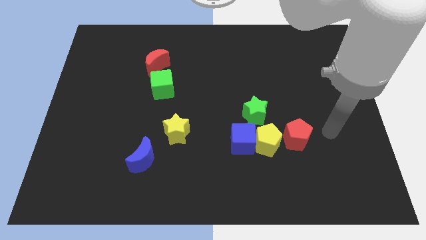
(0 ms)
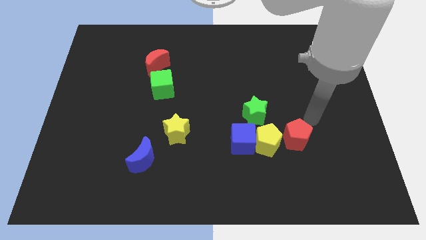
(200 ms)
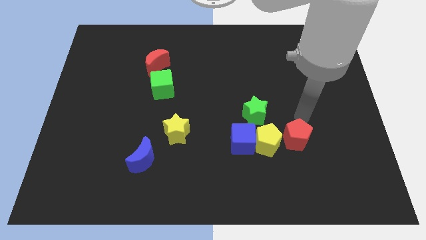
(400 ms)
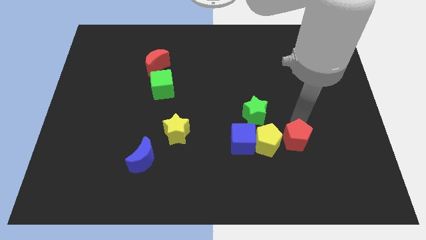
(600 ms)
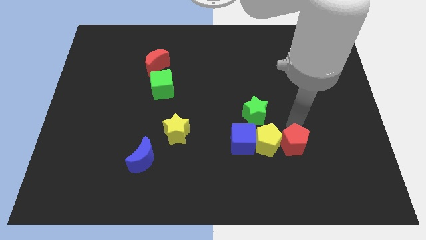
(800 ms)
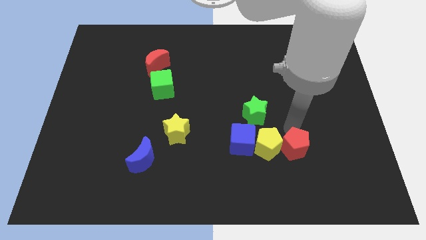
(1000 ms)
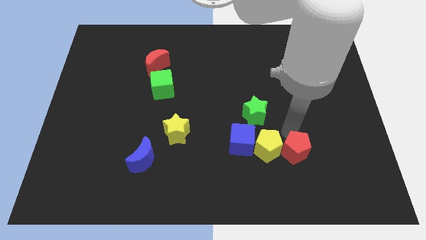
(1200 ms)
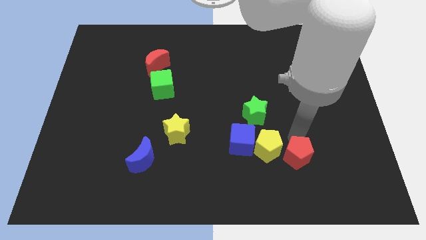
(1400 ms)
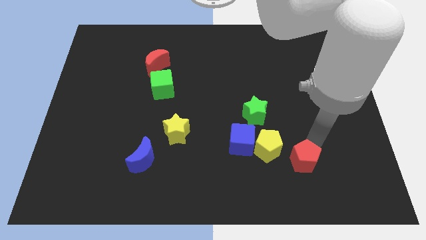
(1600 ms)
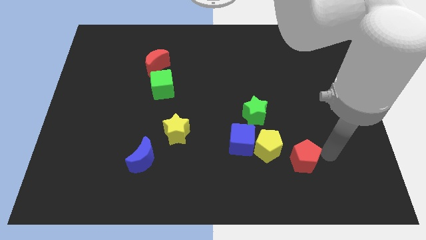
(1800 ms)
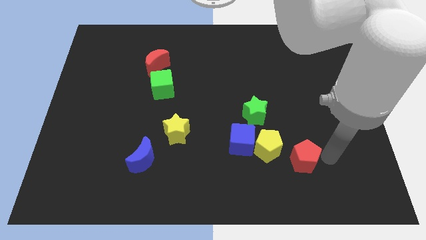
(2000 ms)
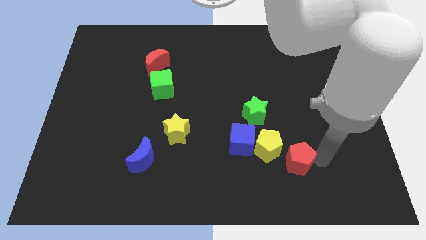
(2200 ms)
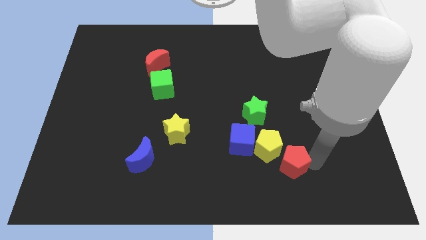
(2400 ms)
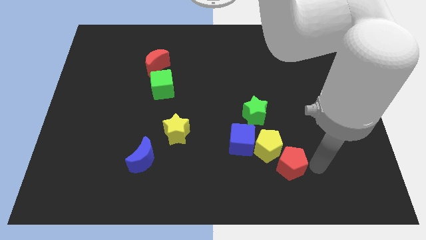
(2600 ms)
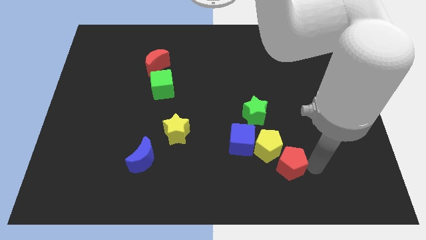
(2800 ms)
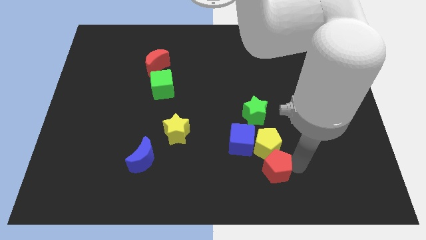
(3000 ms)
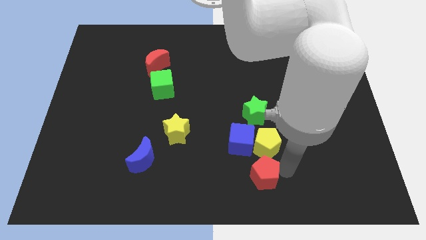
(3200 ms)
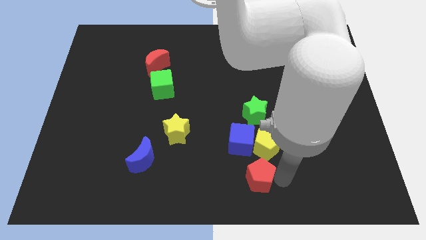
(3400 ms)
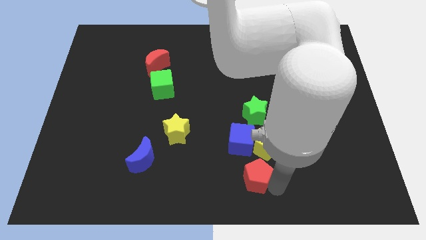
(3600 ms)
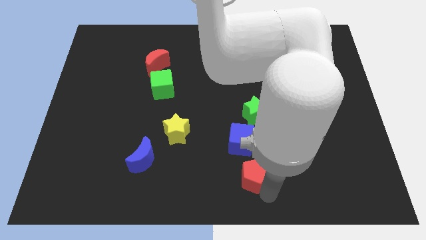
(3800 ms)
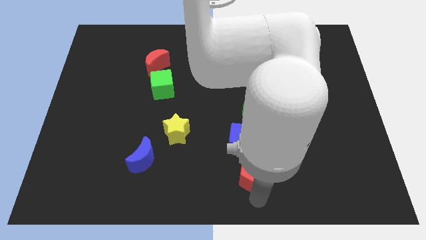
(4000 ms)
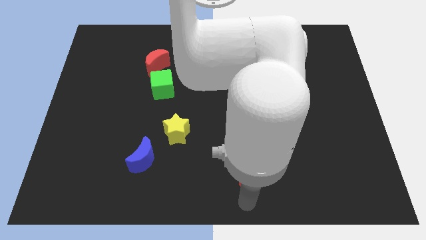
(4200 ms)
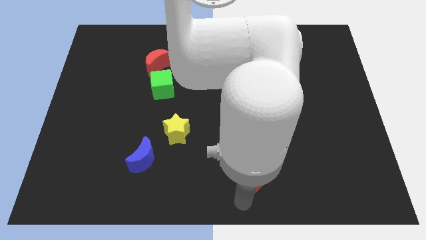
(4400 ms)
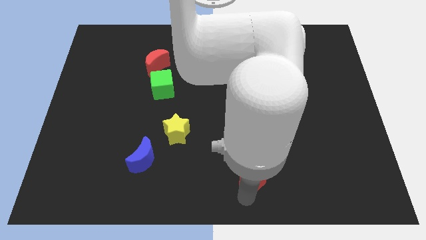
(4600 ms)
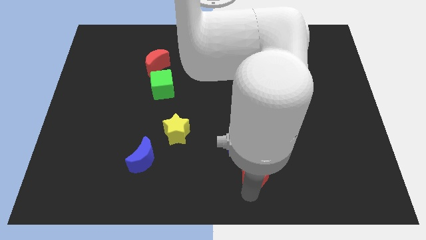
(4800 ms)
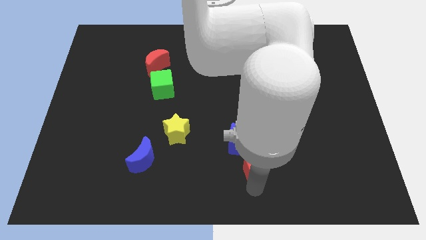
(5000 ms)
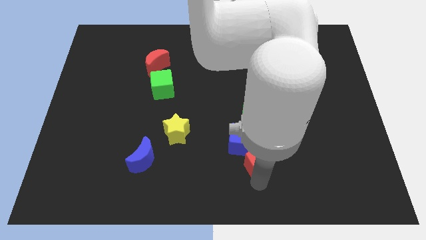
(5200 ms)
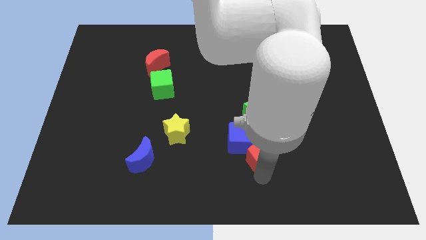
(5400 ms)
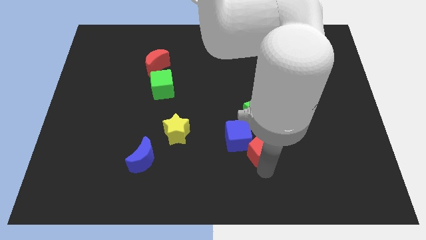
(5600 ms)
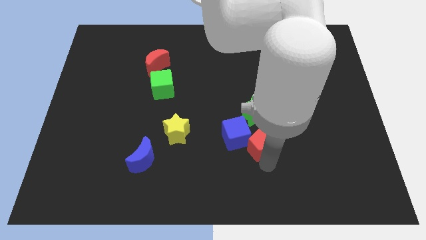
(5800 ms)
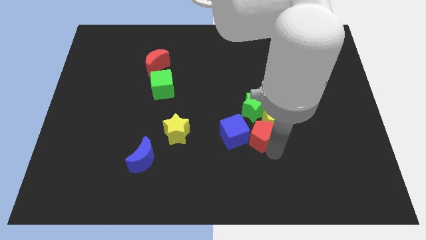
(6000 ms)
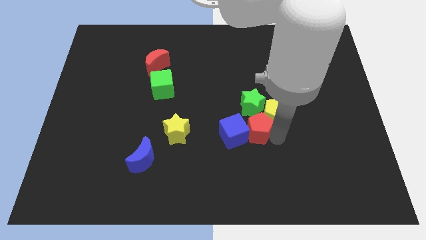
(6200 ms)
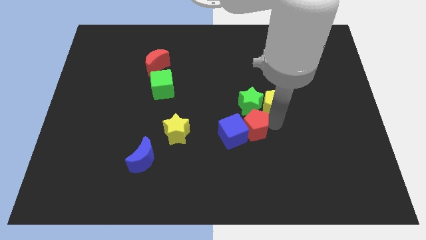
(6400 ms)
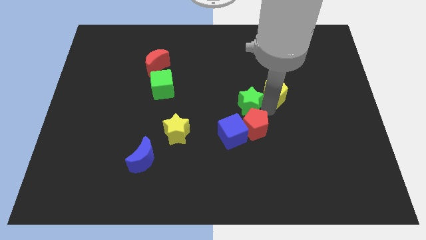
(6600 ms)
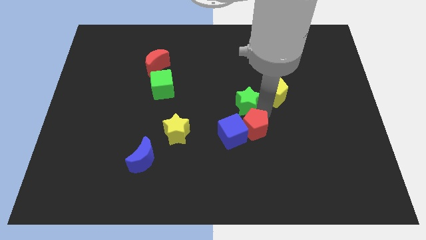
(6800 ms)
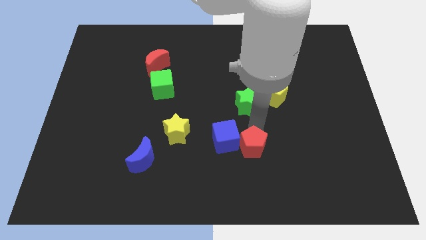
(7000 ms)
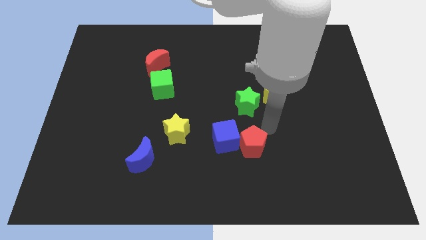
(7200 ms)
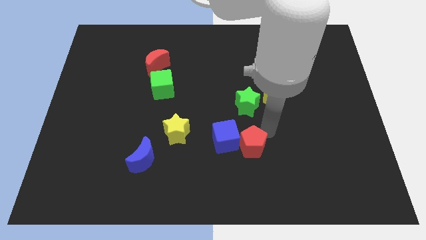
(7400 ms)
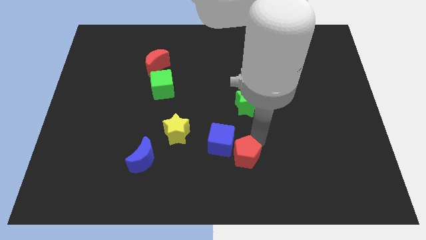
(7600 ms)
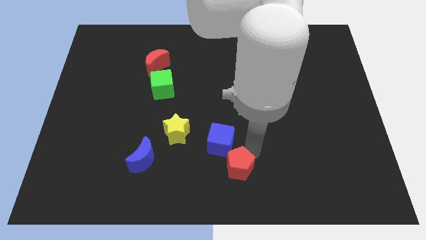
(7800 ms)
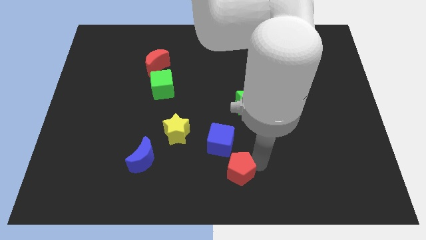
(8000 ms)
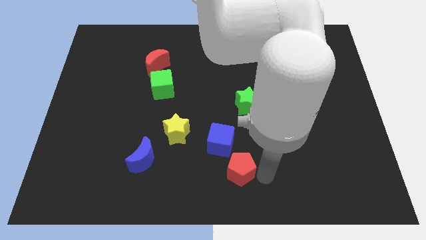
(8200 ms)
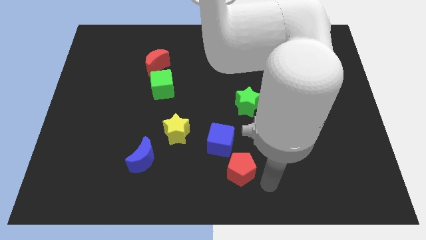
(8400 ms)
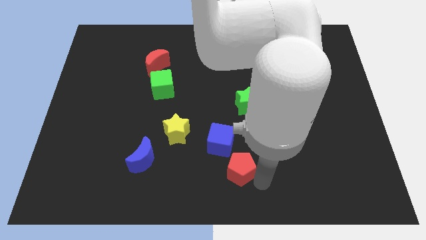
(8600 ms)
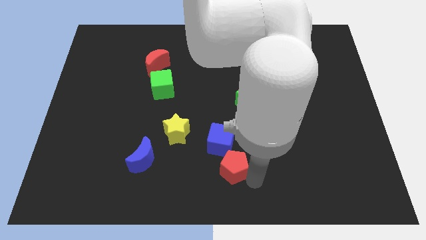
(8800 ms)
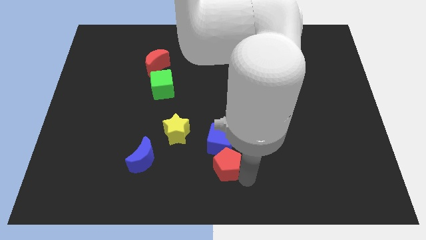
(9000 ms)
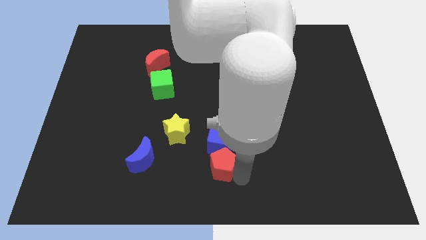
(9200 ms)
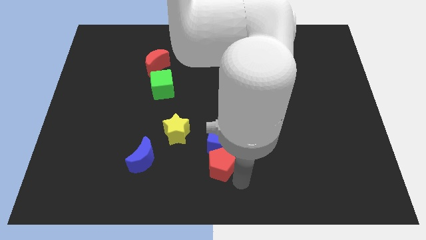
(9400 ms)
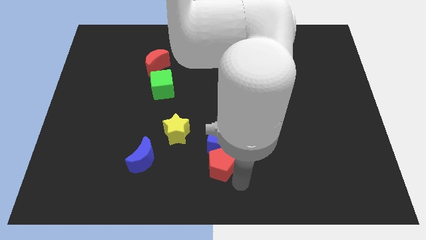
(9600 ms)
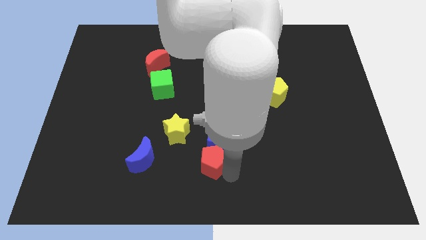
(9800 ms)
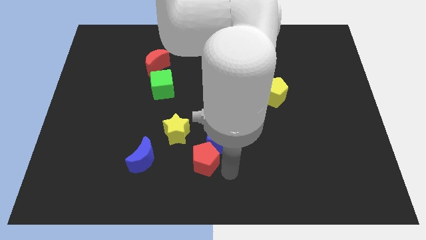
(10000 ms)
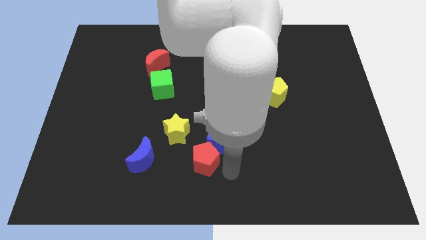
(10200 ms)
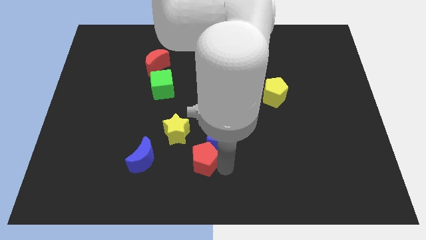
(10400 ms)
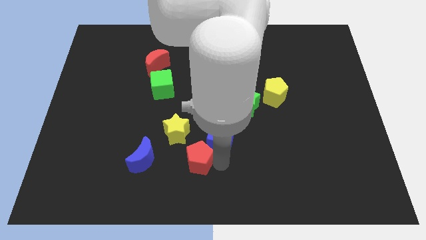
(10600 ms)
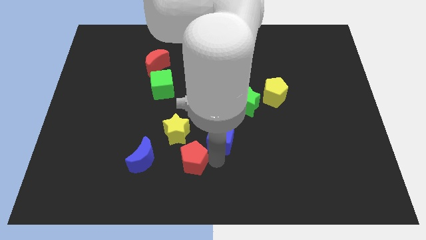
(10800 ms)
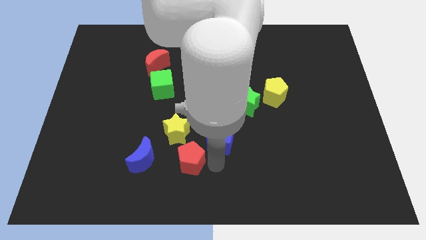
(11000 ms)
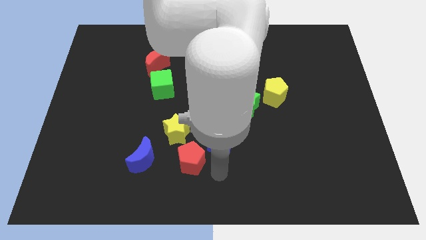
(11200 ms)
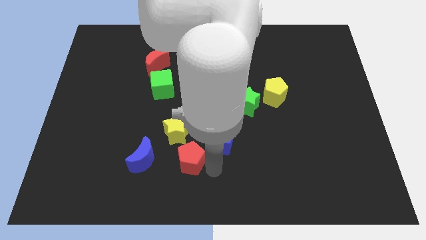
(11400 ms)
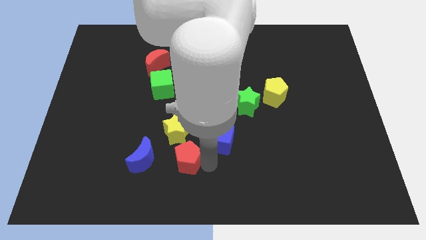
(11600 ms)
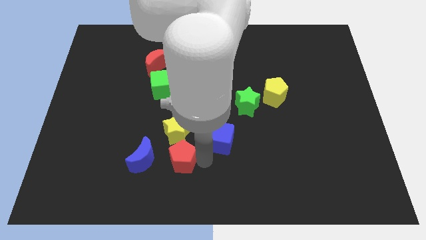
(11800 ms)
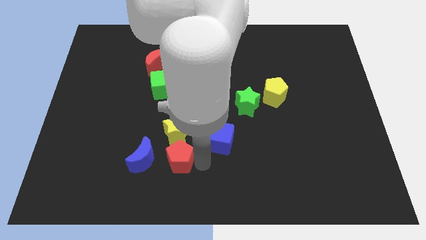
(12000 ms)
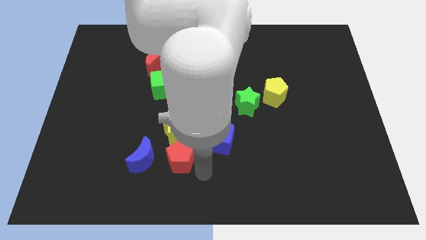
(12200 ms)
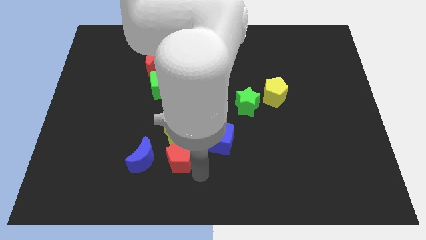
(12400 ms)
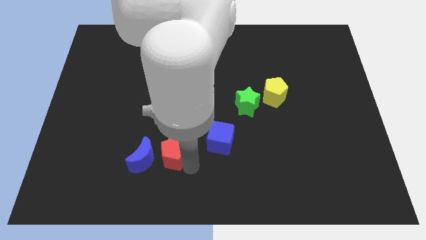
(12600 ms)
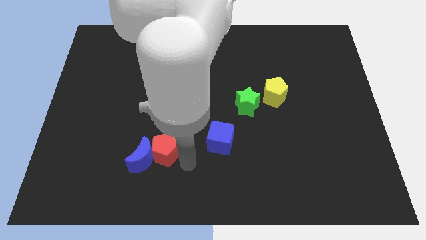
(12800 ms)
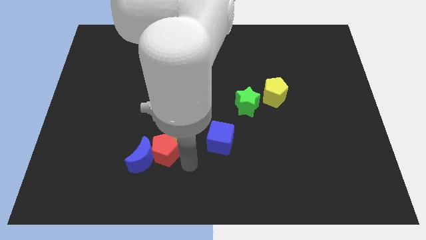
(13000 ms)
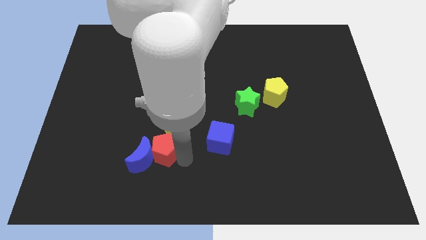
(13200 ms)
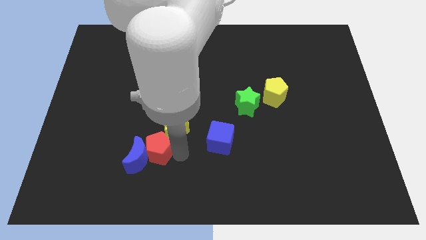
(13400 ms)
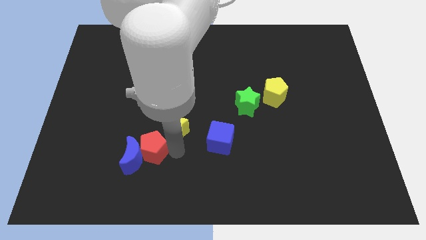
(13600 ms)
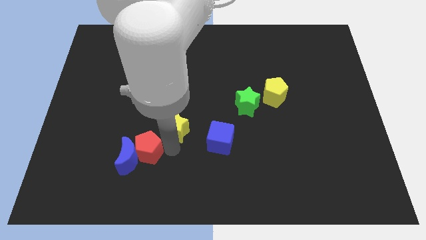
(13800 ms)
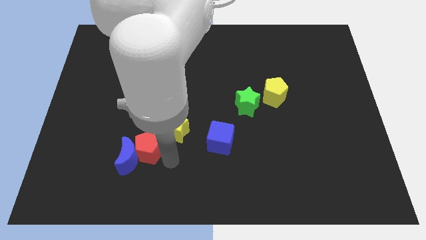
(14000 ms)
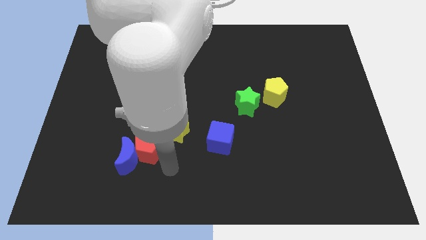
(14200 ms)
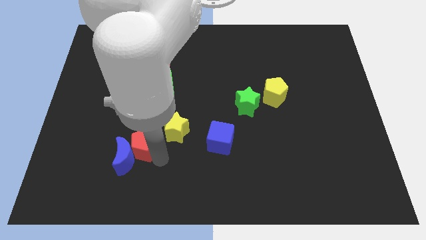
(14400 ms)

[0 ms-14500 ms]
put the red pentagon just left of the yellow star
